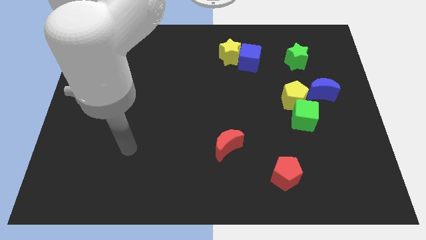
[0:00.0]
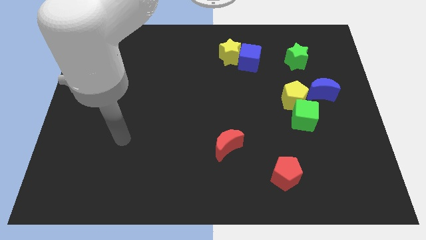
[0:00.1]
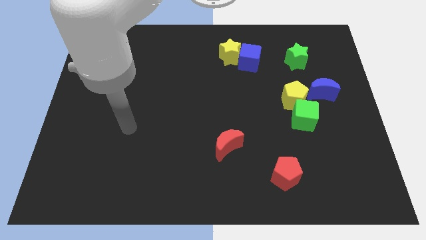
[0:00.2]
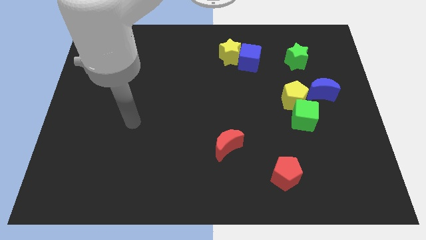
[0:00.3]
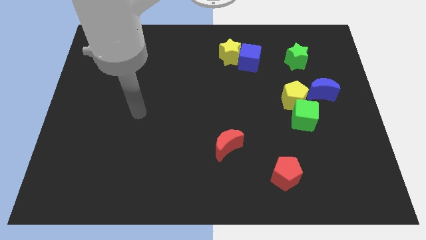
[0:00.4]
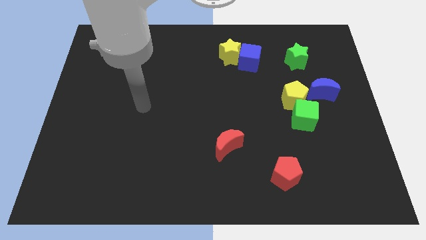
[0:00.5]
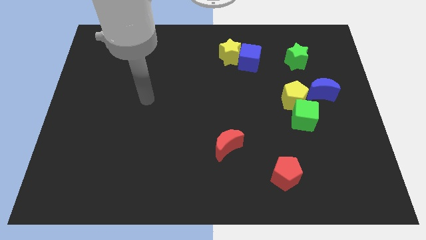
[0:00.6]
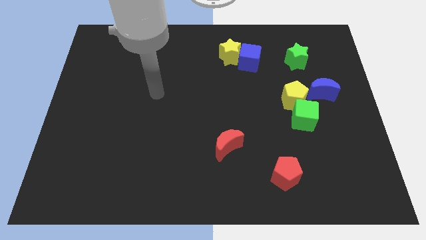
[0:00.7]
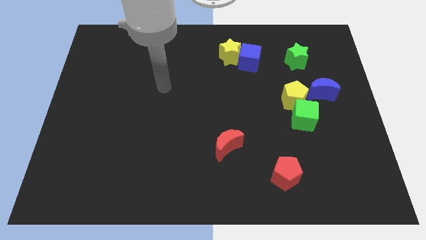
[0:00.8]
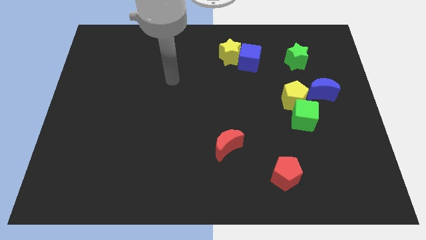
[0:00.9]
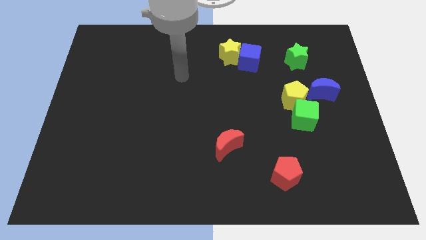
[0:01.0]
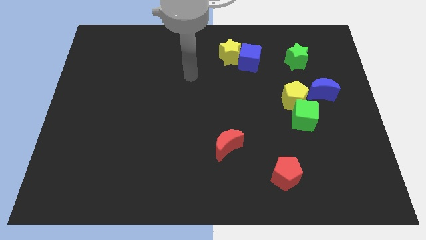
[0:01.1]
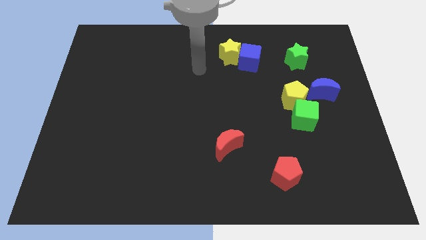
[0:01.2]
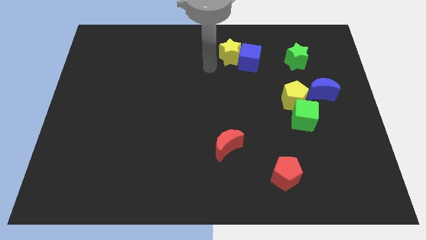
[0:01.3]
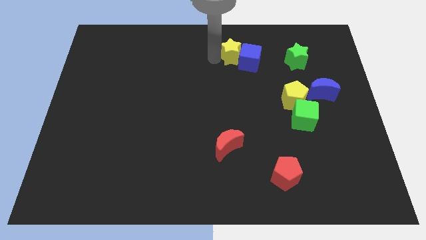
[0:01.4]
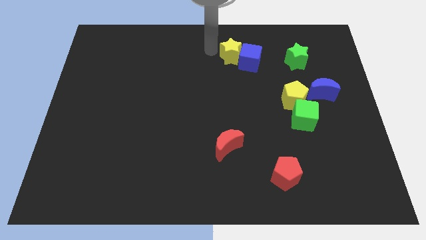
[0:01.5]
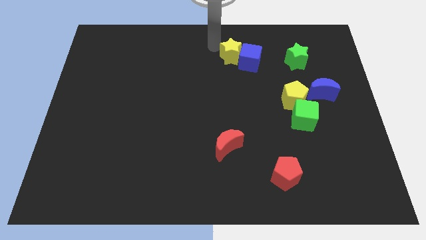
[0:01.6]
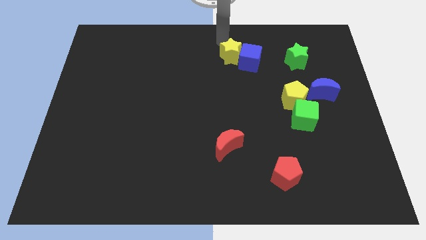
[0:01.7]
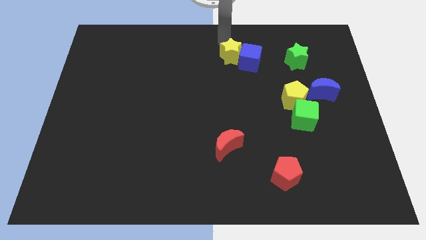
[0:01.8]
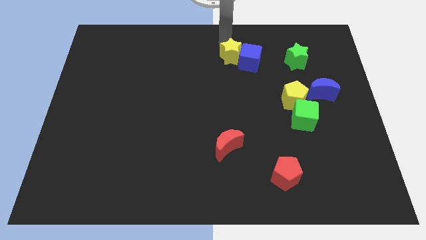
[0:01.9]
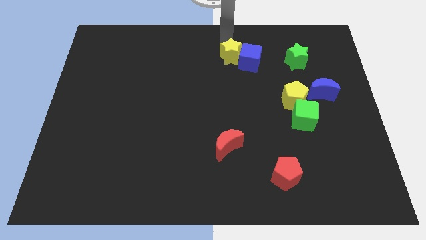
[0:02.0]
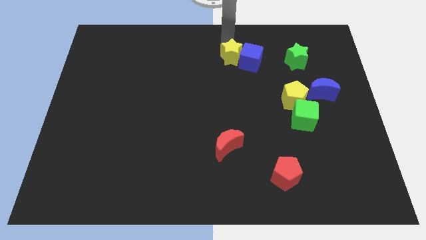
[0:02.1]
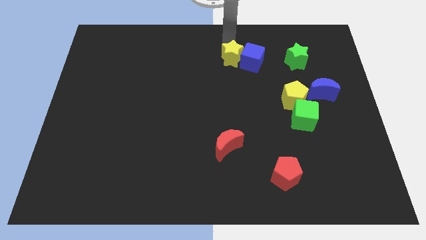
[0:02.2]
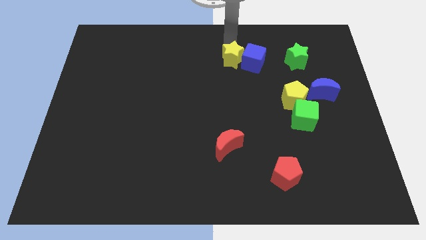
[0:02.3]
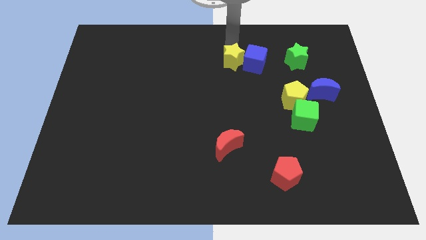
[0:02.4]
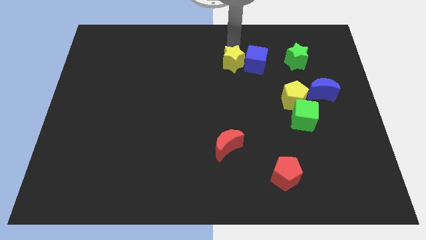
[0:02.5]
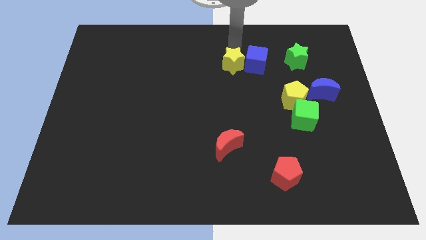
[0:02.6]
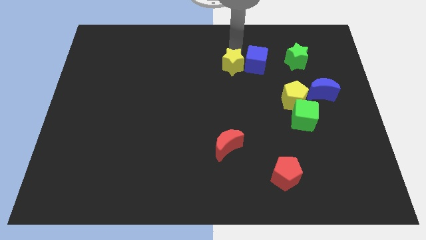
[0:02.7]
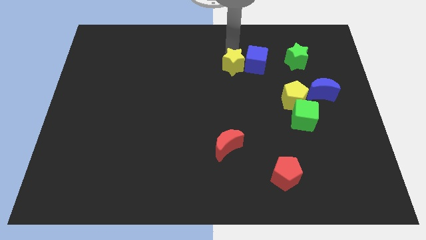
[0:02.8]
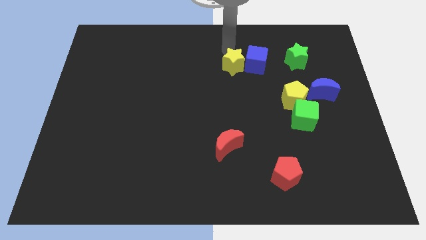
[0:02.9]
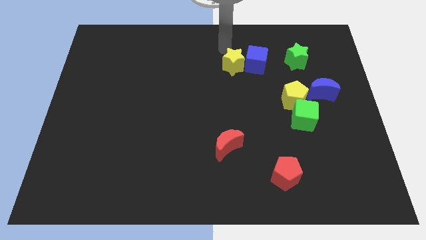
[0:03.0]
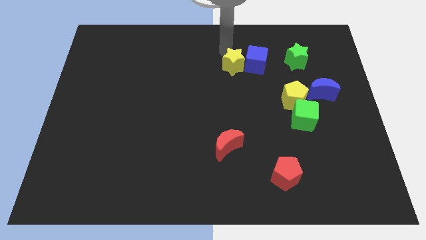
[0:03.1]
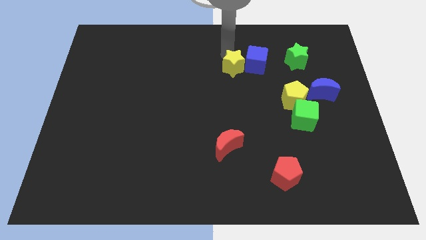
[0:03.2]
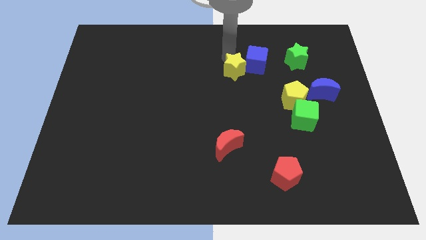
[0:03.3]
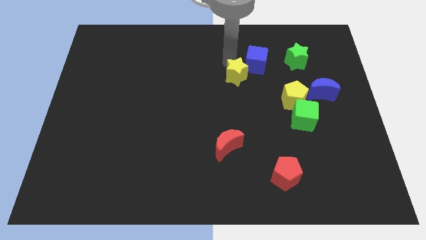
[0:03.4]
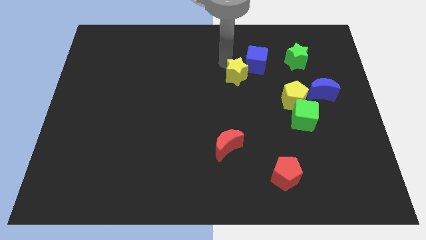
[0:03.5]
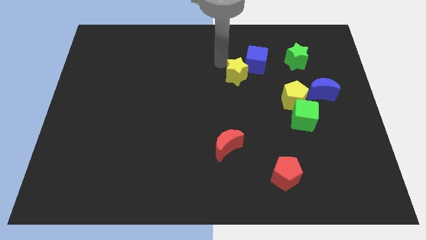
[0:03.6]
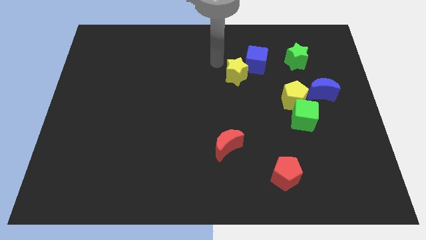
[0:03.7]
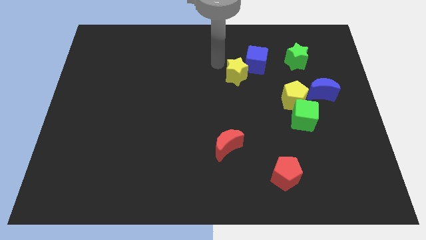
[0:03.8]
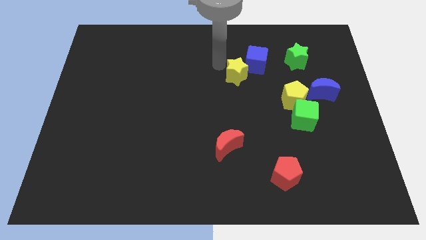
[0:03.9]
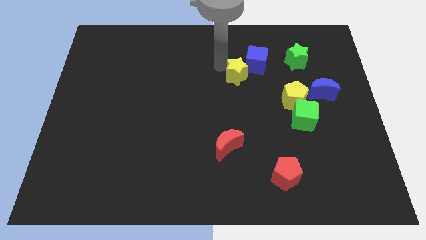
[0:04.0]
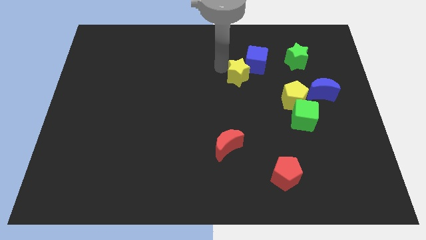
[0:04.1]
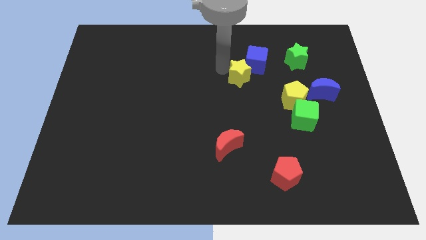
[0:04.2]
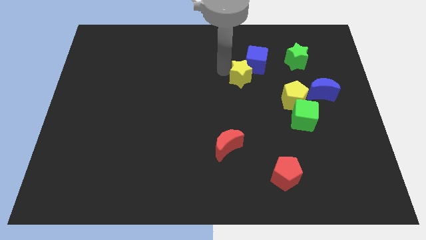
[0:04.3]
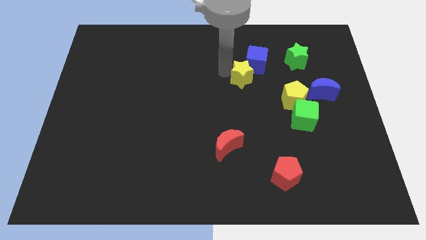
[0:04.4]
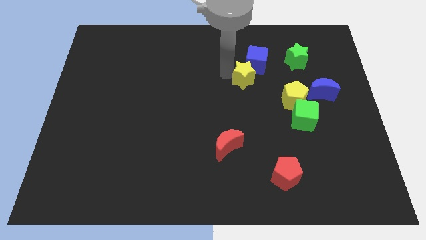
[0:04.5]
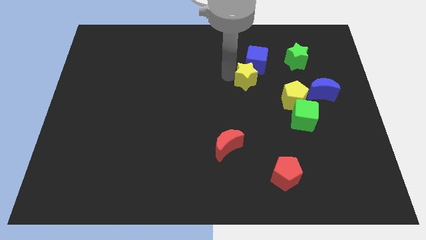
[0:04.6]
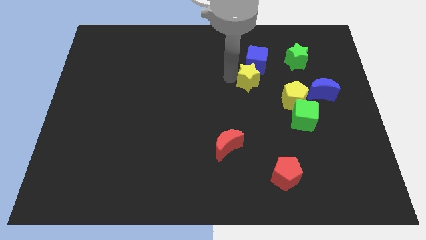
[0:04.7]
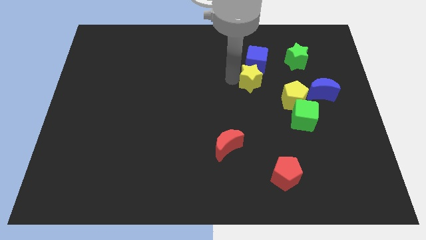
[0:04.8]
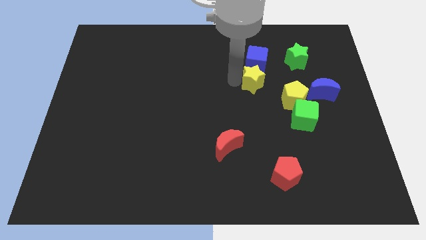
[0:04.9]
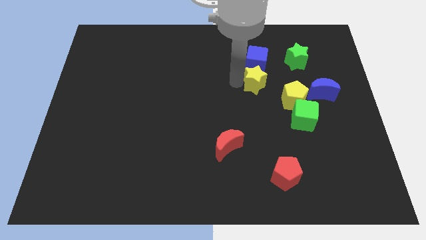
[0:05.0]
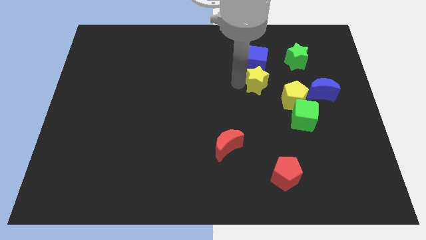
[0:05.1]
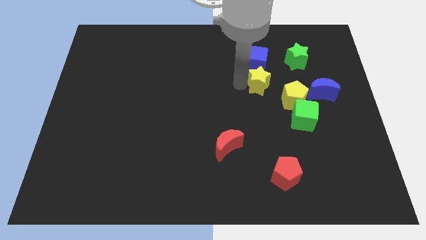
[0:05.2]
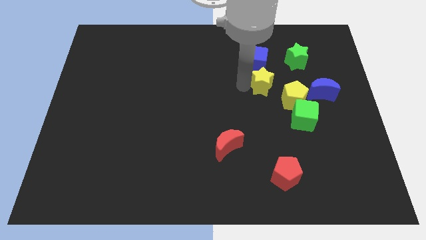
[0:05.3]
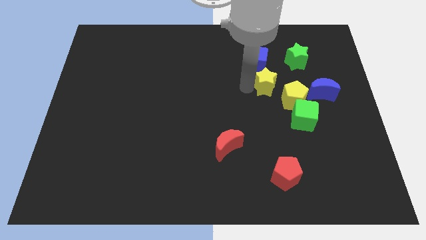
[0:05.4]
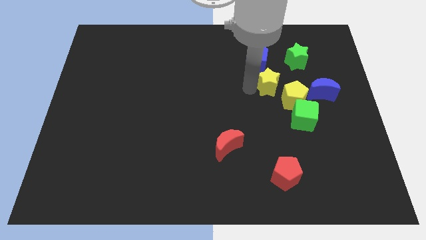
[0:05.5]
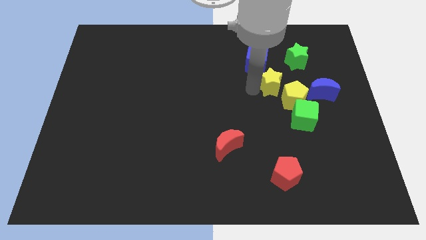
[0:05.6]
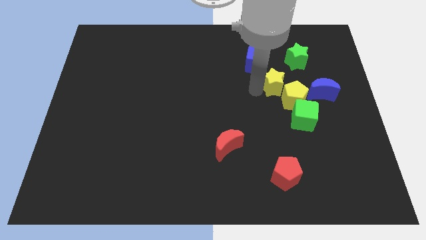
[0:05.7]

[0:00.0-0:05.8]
put the yellow star to the yellow pentagon

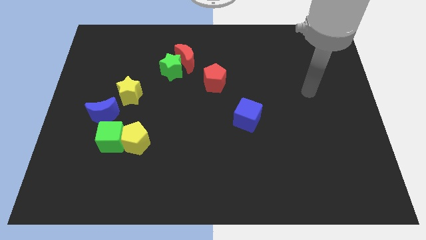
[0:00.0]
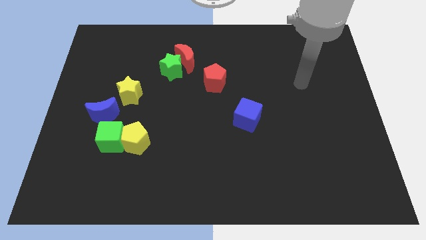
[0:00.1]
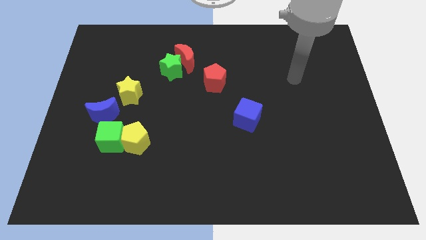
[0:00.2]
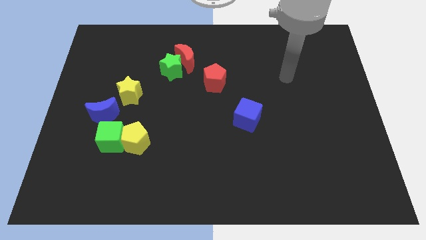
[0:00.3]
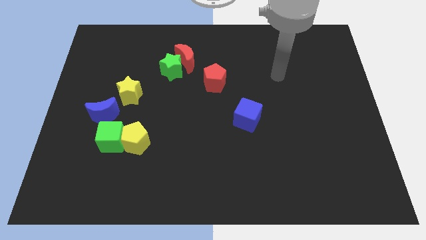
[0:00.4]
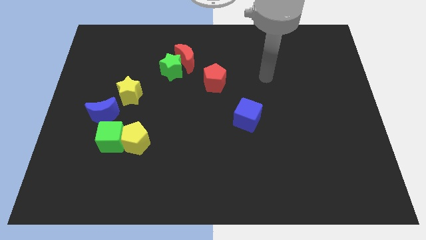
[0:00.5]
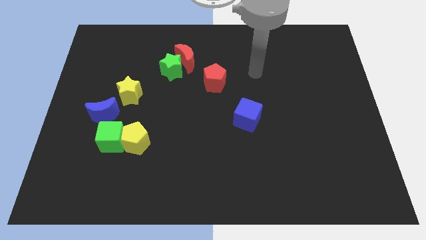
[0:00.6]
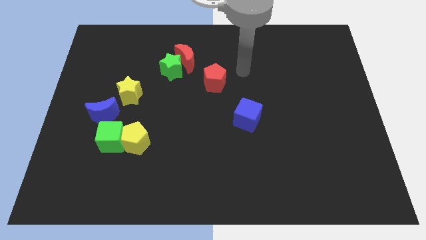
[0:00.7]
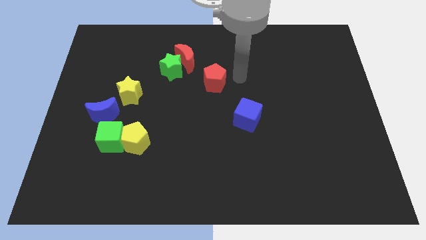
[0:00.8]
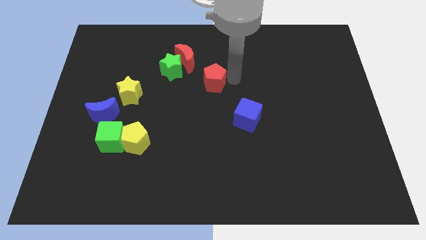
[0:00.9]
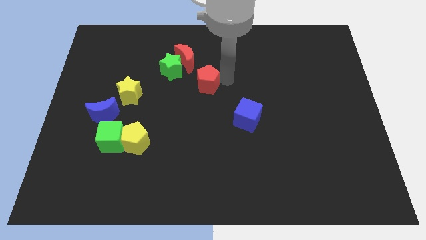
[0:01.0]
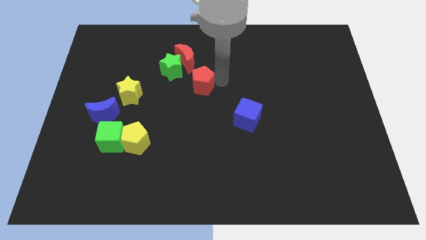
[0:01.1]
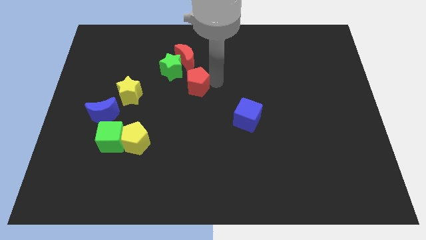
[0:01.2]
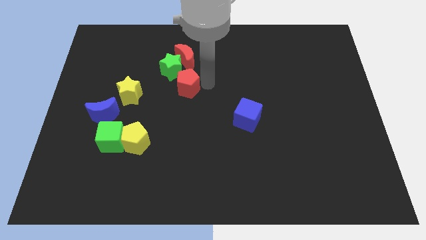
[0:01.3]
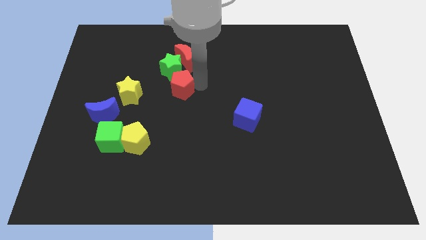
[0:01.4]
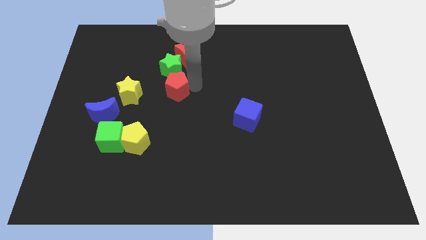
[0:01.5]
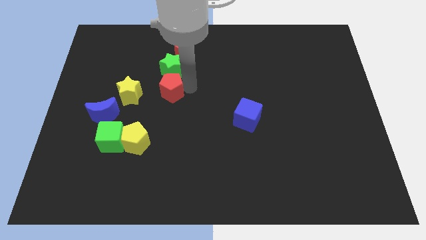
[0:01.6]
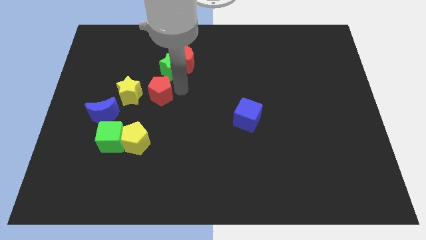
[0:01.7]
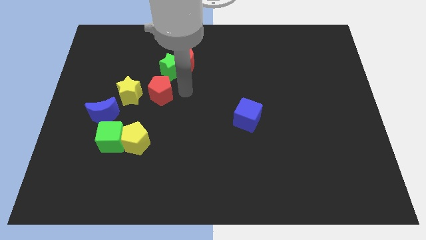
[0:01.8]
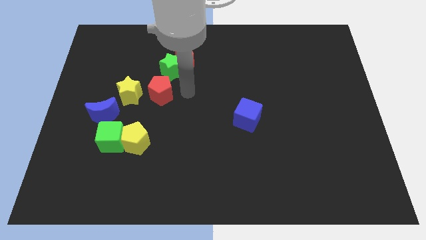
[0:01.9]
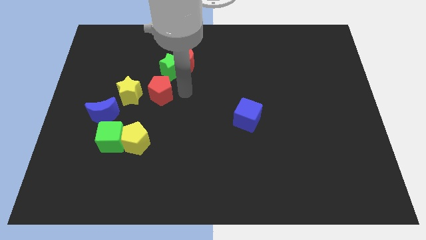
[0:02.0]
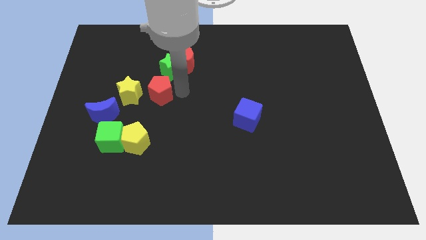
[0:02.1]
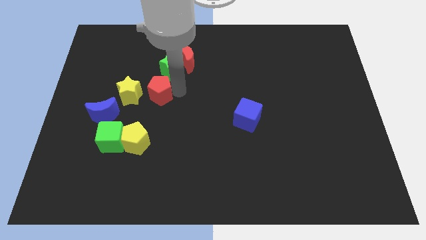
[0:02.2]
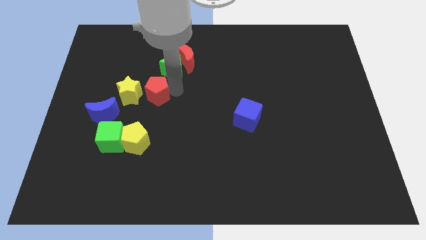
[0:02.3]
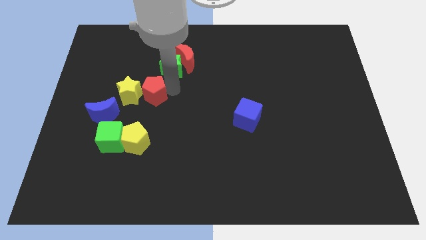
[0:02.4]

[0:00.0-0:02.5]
slide the red pentagon towards the yellow star
